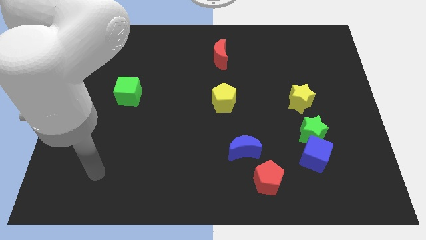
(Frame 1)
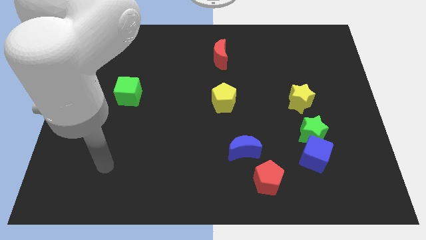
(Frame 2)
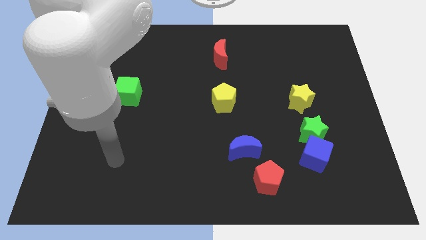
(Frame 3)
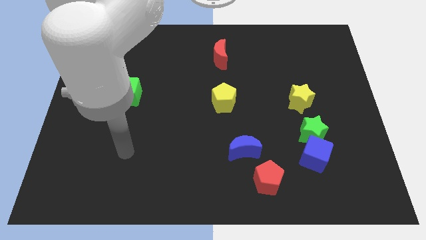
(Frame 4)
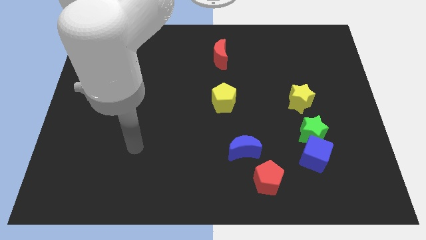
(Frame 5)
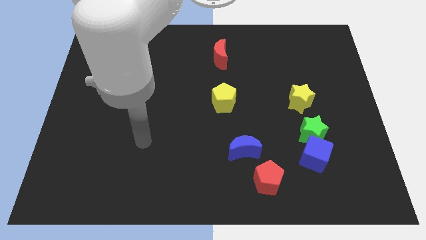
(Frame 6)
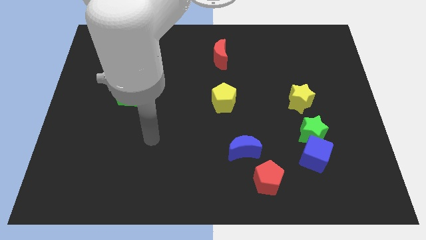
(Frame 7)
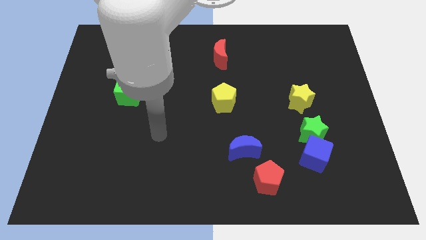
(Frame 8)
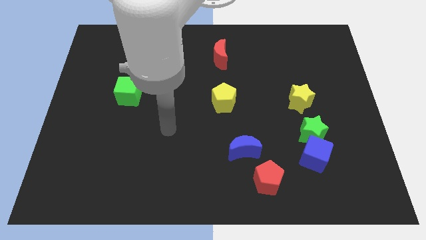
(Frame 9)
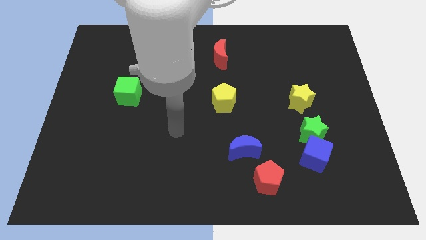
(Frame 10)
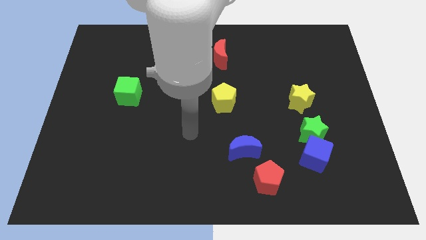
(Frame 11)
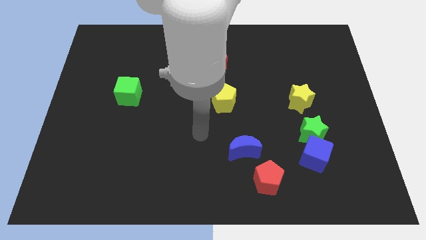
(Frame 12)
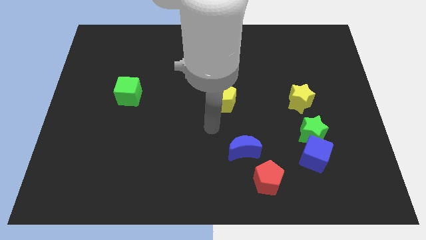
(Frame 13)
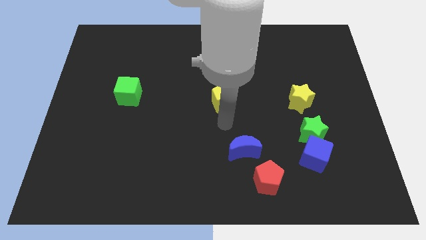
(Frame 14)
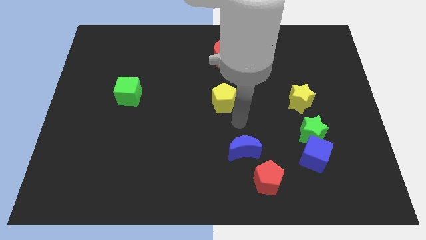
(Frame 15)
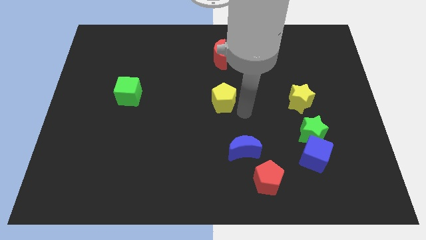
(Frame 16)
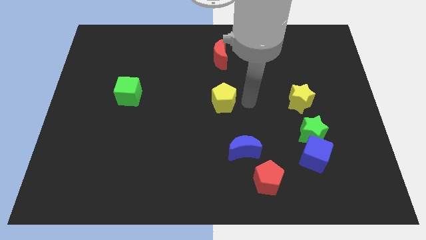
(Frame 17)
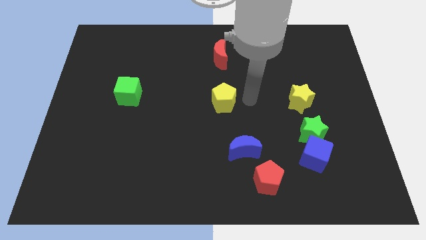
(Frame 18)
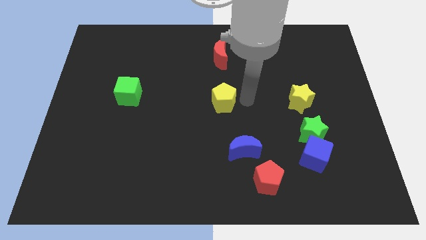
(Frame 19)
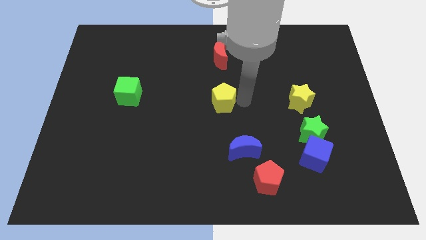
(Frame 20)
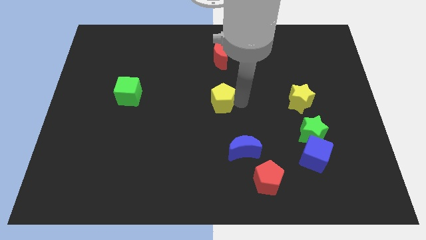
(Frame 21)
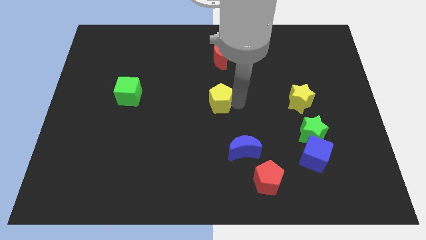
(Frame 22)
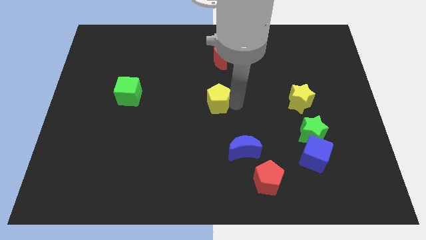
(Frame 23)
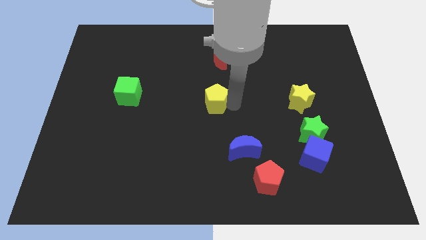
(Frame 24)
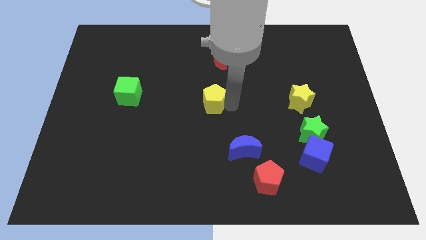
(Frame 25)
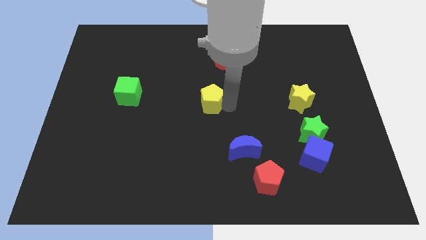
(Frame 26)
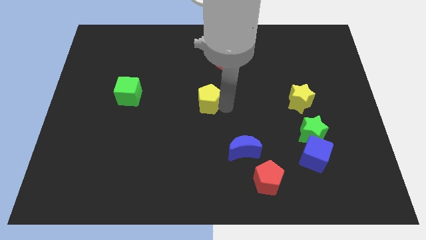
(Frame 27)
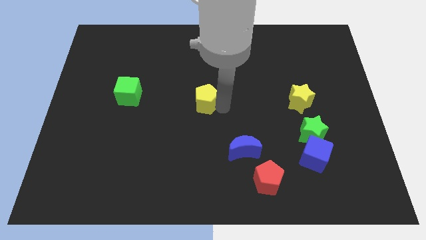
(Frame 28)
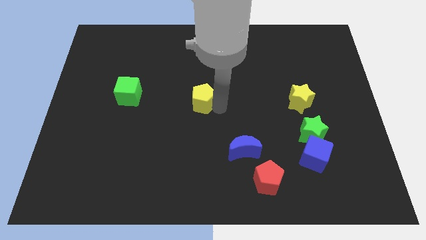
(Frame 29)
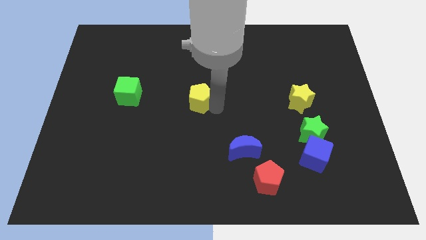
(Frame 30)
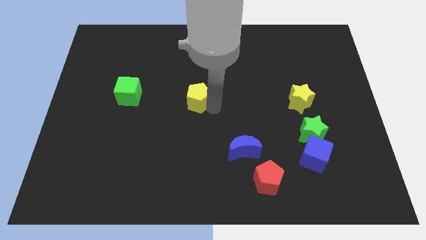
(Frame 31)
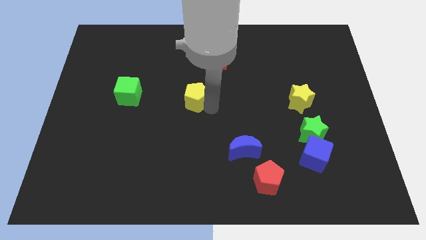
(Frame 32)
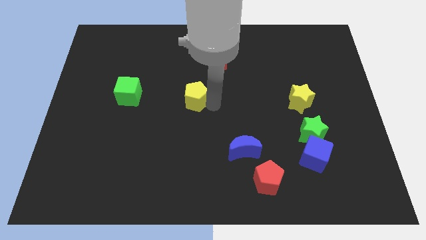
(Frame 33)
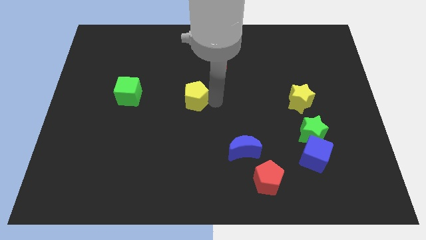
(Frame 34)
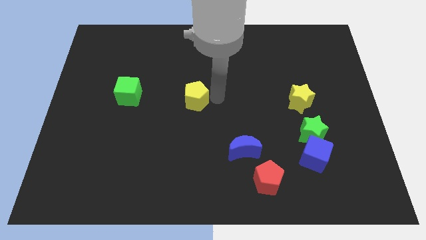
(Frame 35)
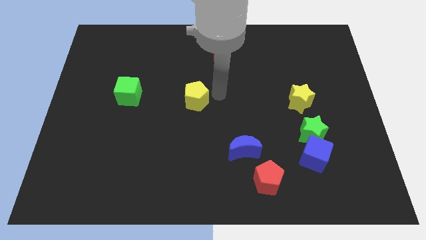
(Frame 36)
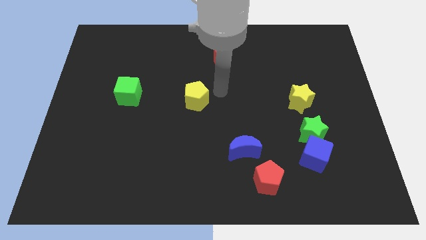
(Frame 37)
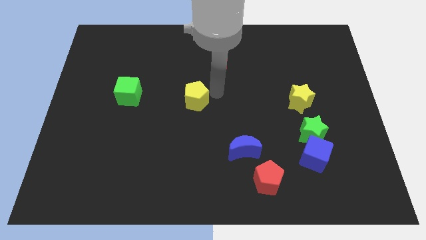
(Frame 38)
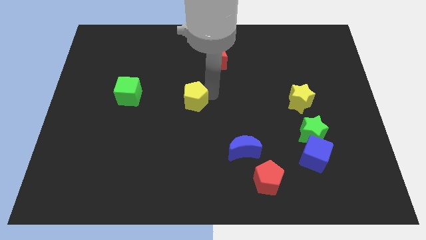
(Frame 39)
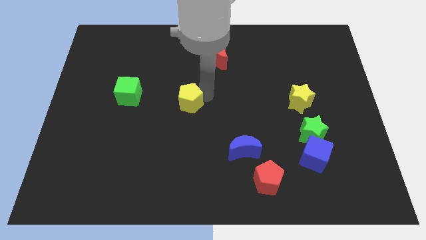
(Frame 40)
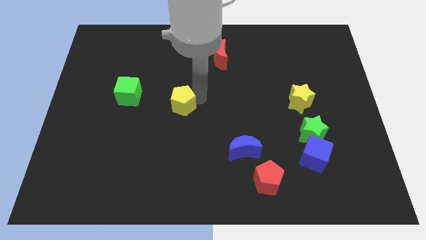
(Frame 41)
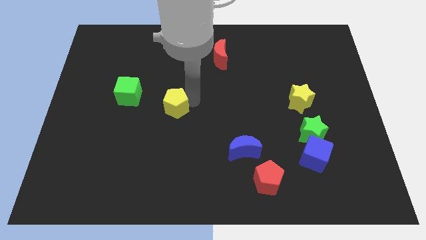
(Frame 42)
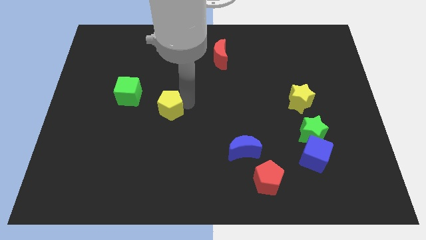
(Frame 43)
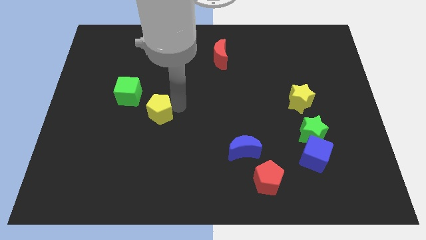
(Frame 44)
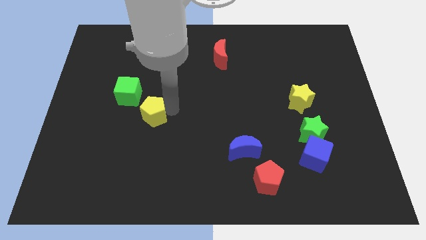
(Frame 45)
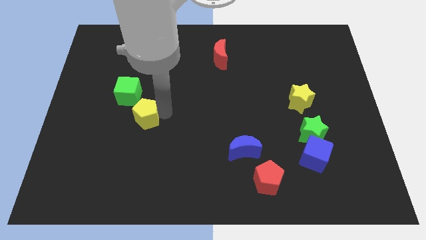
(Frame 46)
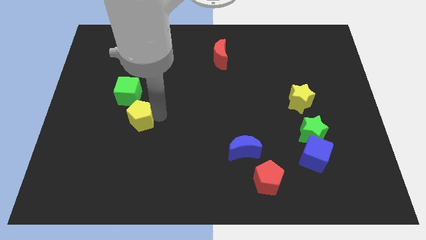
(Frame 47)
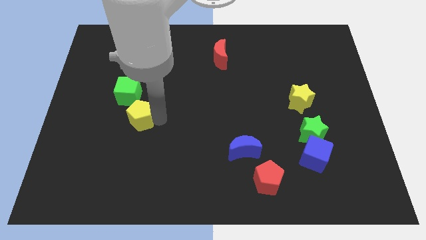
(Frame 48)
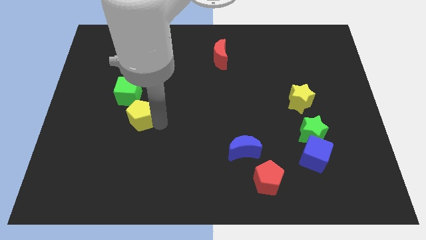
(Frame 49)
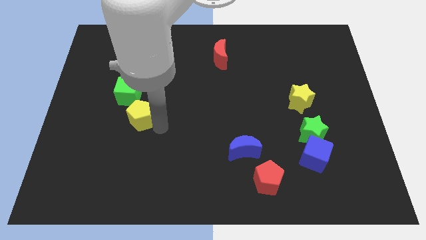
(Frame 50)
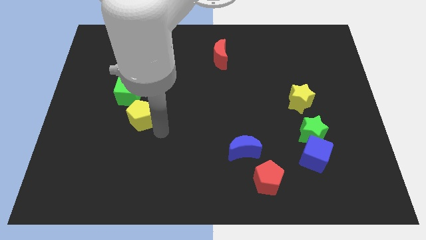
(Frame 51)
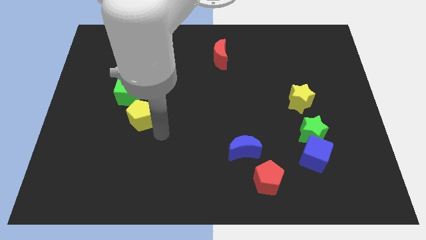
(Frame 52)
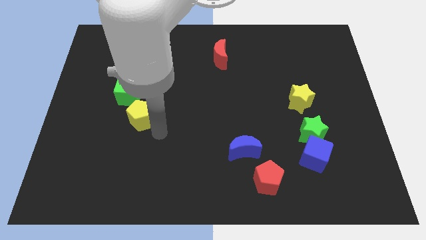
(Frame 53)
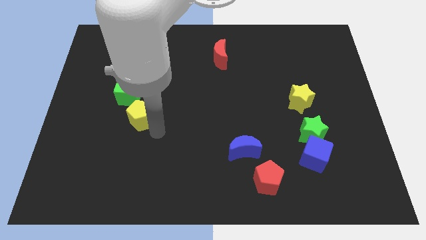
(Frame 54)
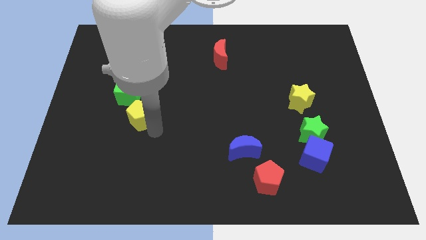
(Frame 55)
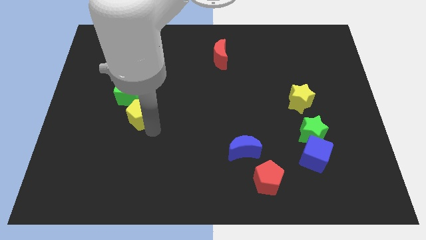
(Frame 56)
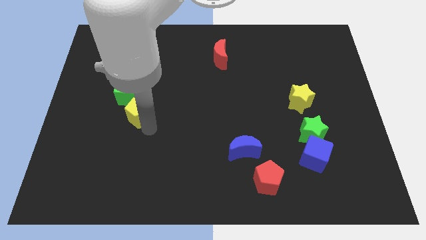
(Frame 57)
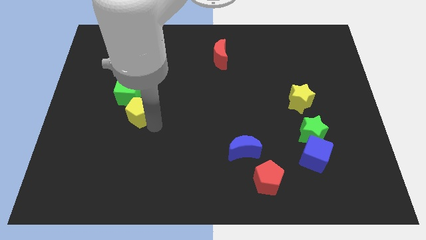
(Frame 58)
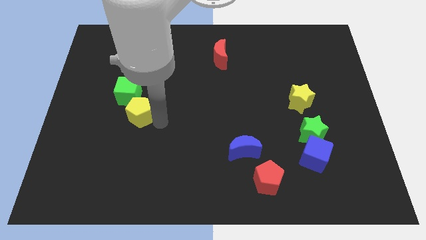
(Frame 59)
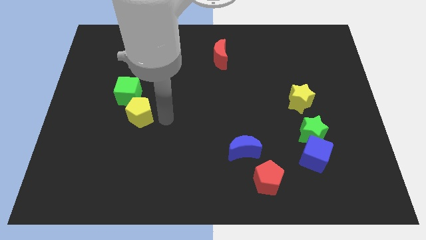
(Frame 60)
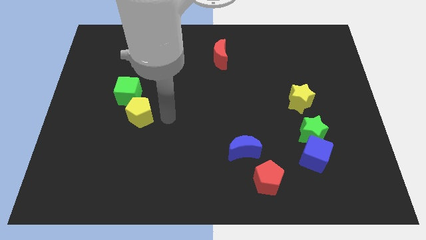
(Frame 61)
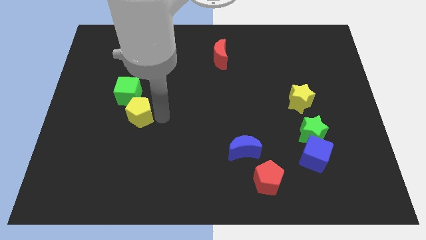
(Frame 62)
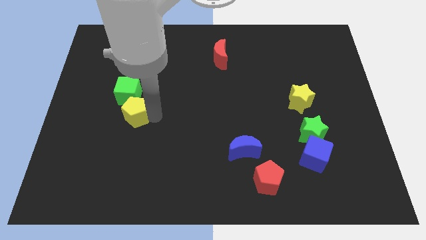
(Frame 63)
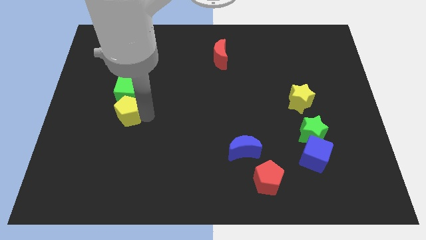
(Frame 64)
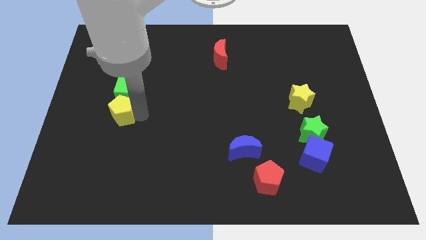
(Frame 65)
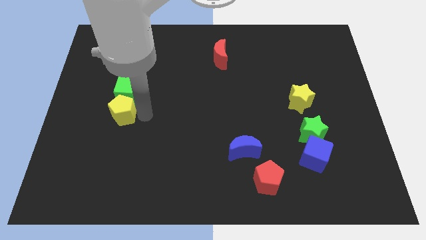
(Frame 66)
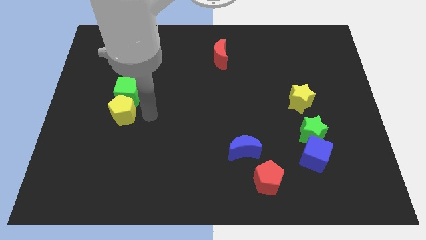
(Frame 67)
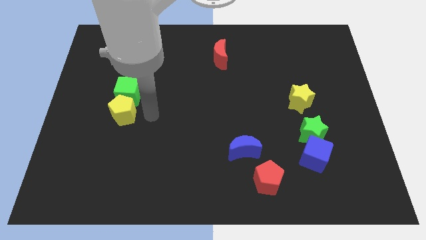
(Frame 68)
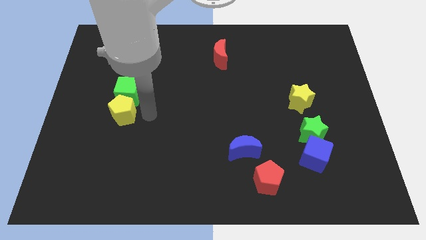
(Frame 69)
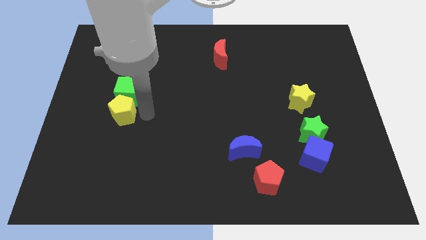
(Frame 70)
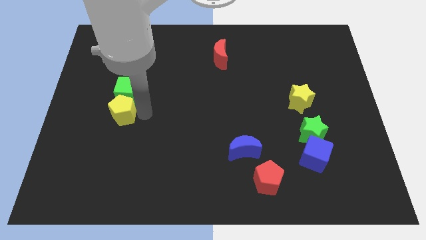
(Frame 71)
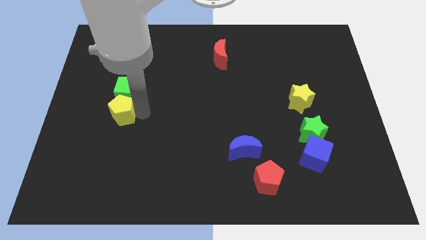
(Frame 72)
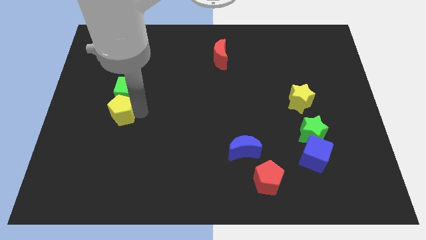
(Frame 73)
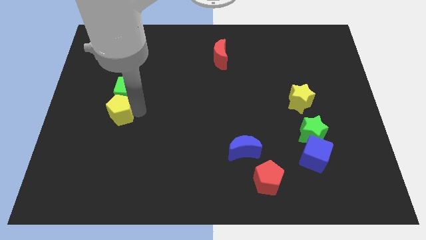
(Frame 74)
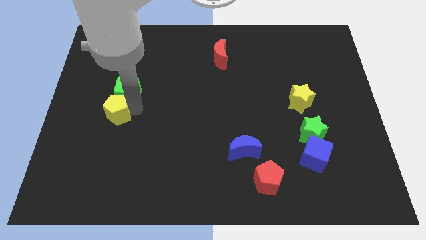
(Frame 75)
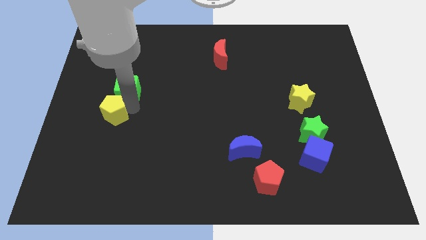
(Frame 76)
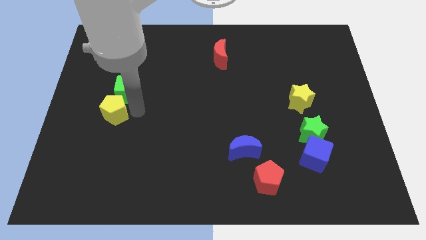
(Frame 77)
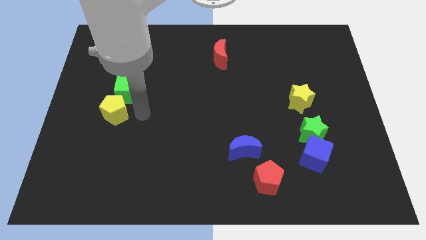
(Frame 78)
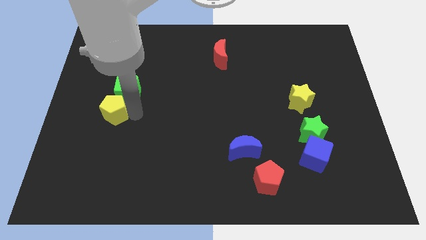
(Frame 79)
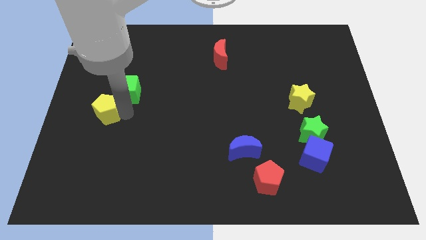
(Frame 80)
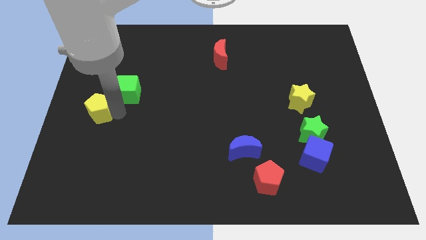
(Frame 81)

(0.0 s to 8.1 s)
slide the yellow pentagon to the center left
